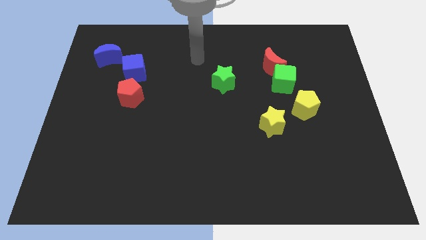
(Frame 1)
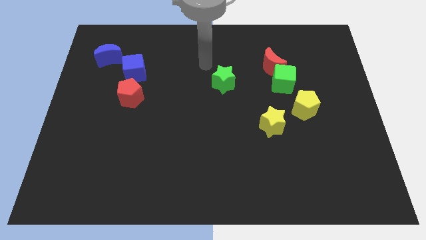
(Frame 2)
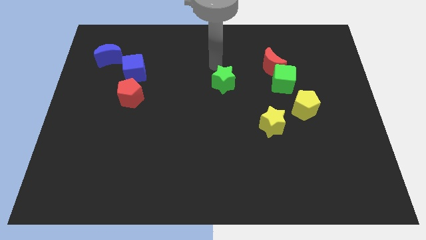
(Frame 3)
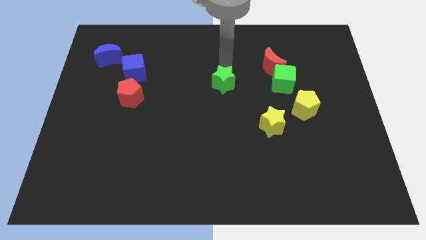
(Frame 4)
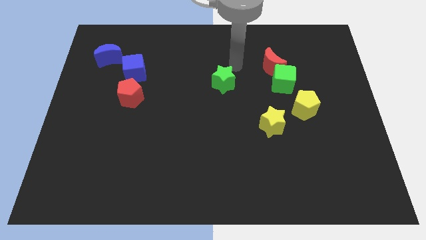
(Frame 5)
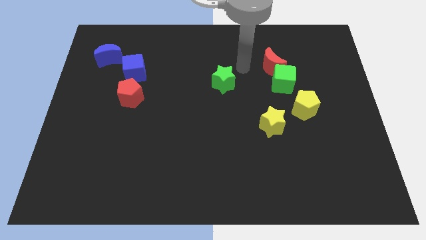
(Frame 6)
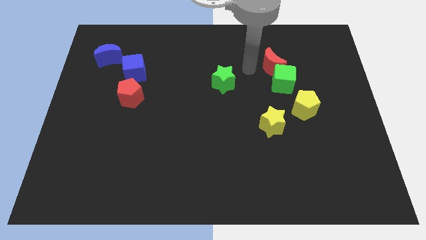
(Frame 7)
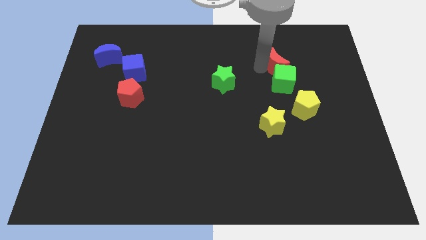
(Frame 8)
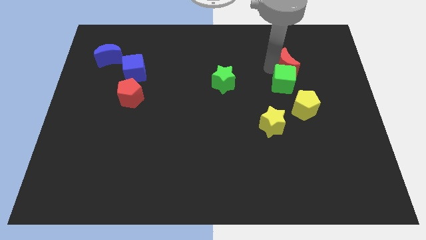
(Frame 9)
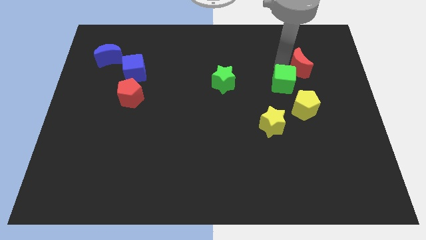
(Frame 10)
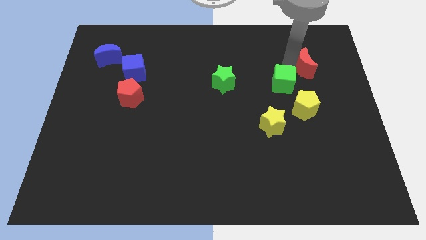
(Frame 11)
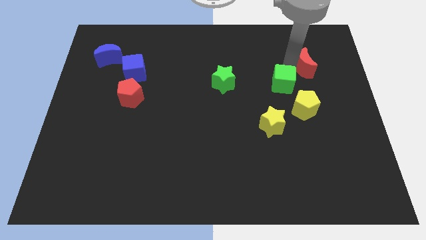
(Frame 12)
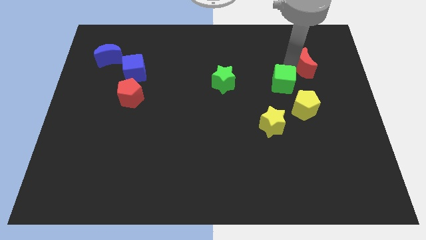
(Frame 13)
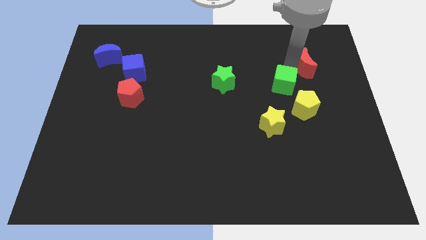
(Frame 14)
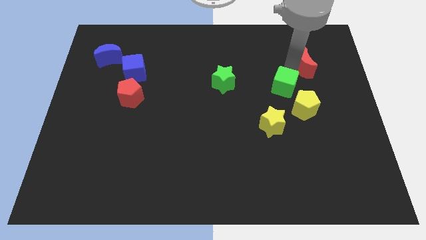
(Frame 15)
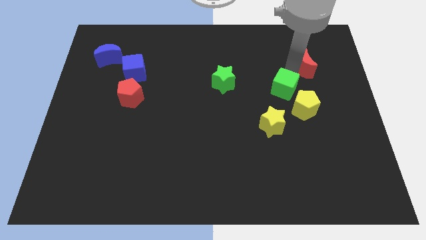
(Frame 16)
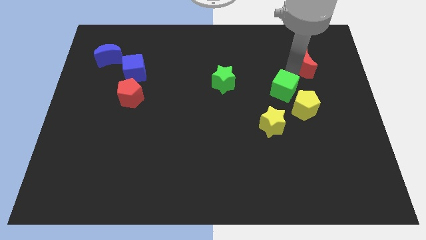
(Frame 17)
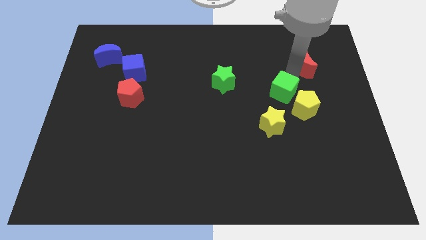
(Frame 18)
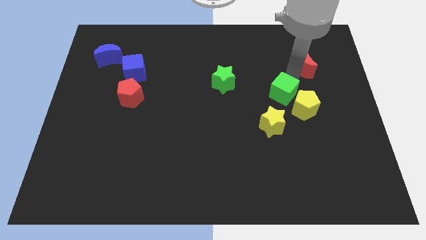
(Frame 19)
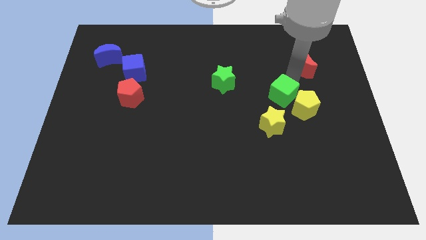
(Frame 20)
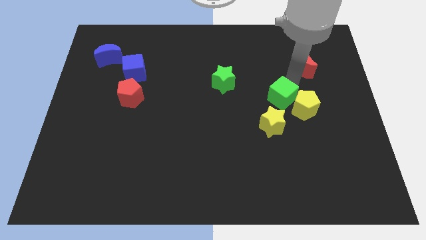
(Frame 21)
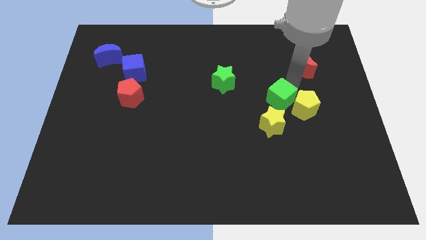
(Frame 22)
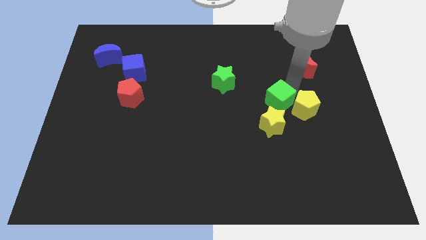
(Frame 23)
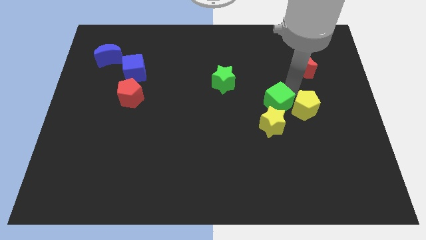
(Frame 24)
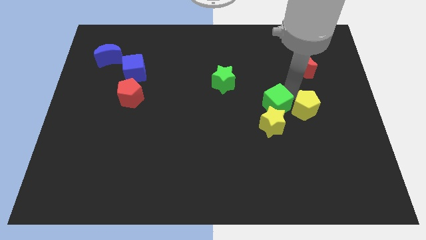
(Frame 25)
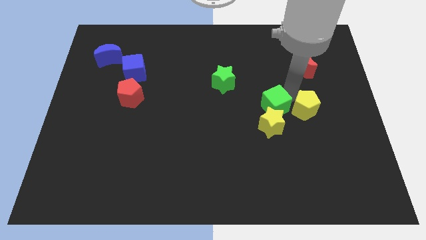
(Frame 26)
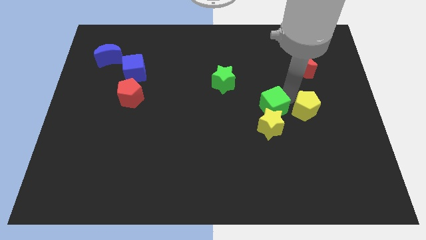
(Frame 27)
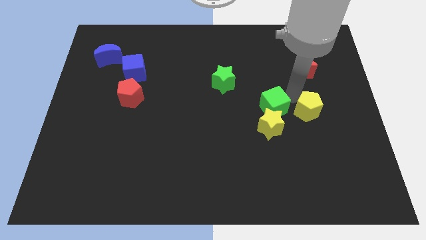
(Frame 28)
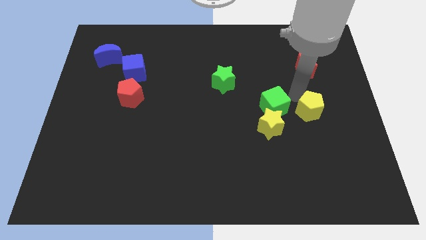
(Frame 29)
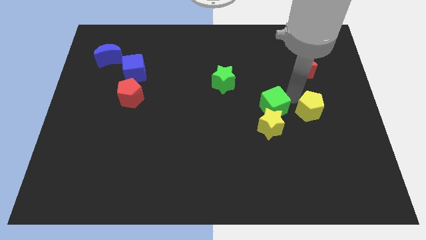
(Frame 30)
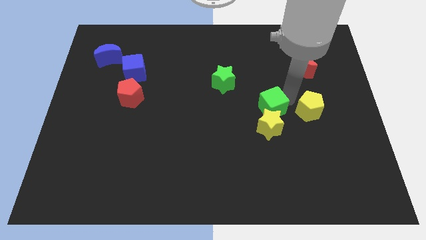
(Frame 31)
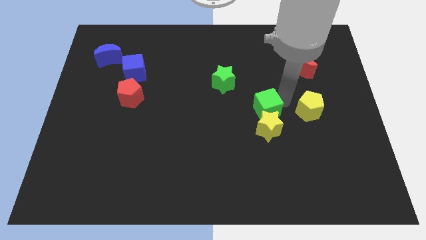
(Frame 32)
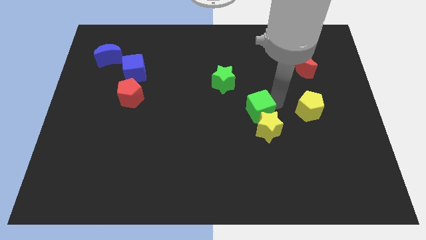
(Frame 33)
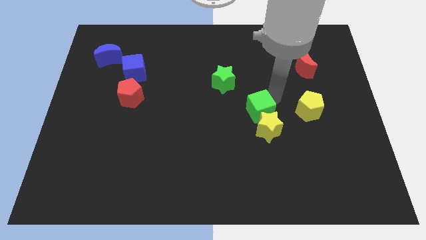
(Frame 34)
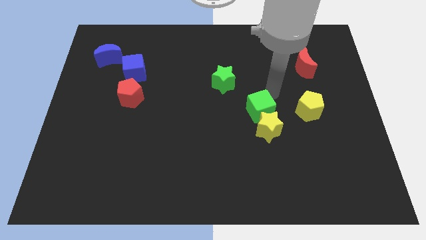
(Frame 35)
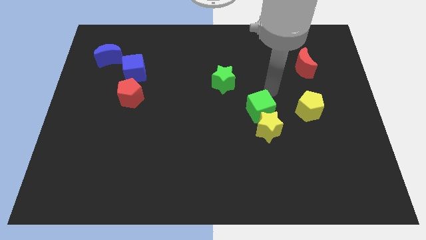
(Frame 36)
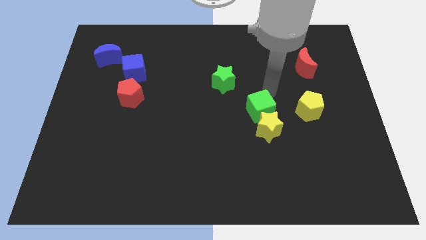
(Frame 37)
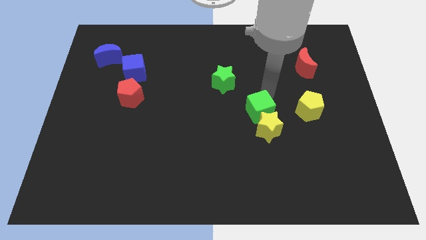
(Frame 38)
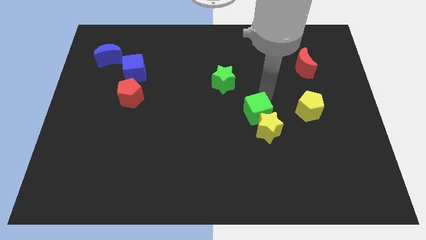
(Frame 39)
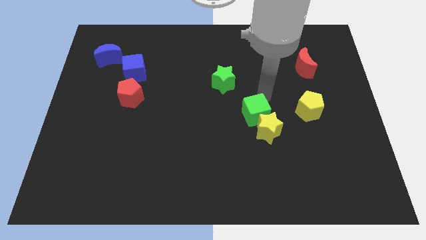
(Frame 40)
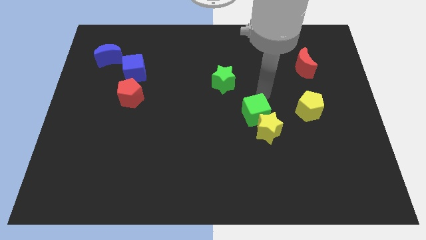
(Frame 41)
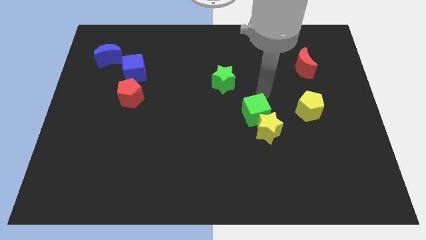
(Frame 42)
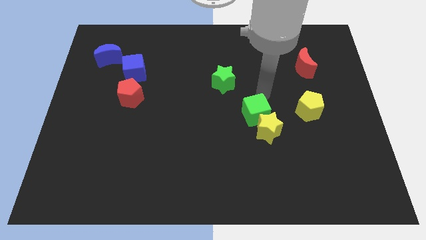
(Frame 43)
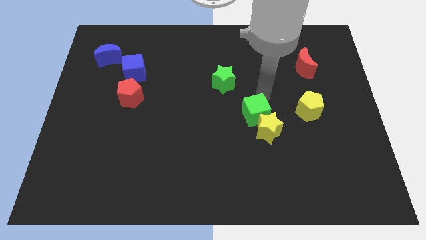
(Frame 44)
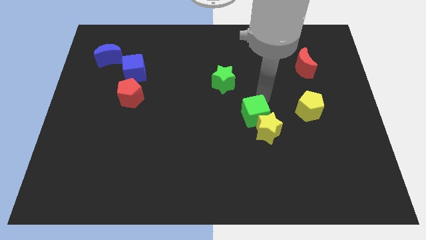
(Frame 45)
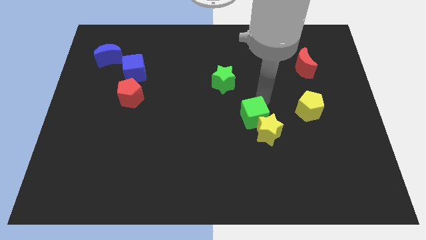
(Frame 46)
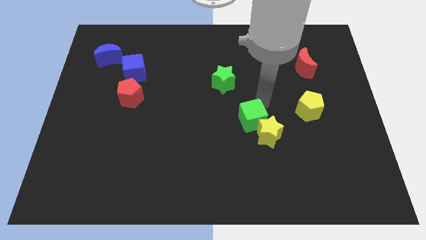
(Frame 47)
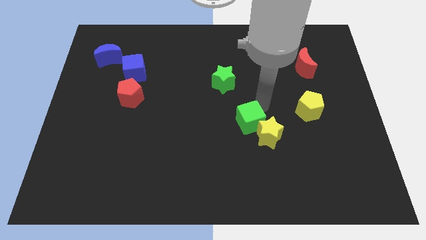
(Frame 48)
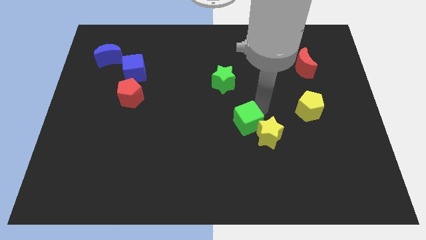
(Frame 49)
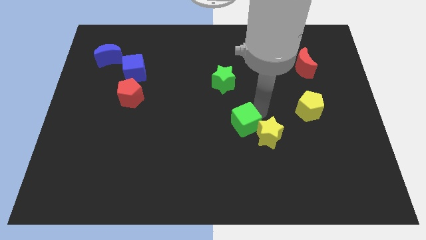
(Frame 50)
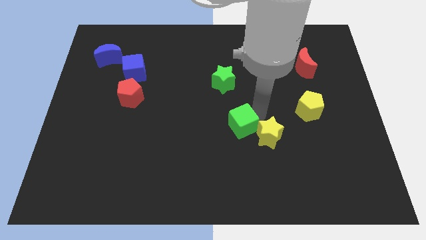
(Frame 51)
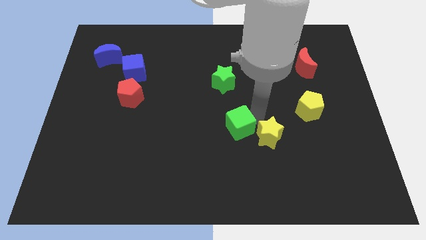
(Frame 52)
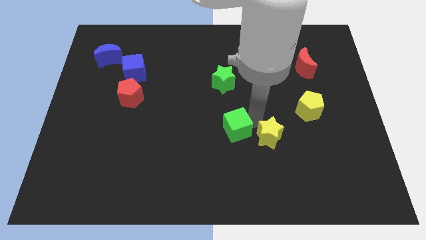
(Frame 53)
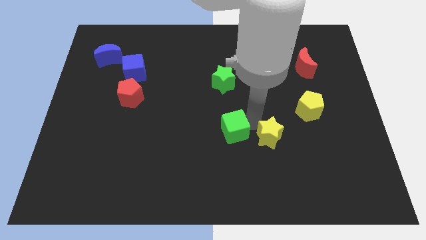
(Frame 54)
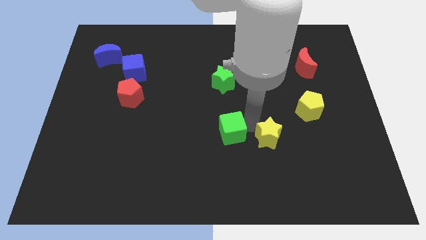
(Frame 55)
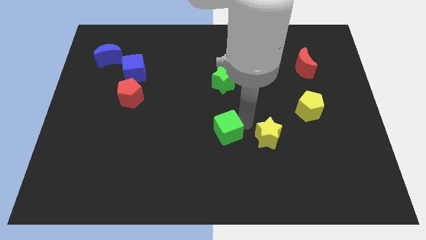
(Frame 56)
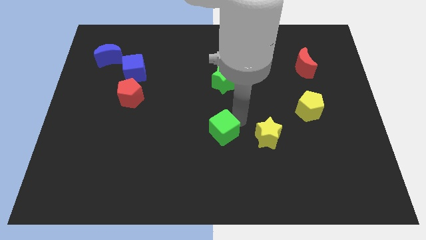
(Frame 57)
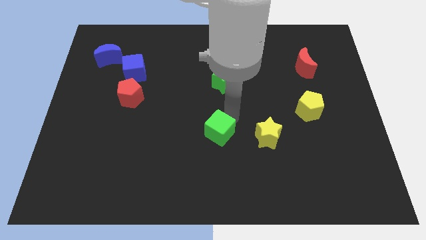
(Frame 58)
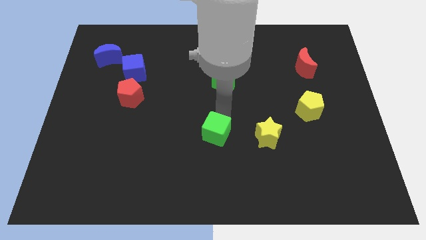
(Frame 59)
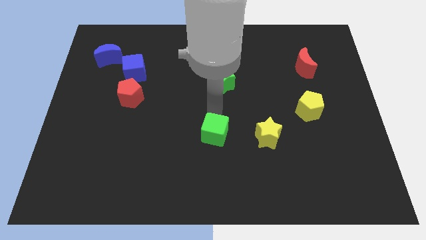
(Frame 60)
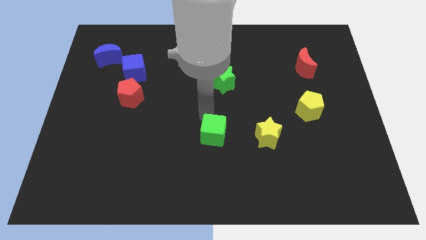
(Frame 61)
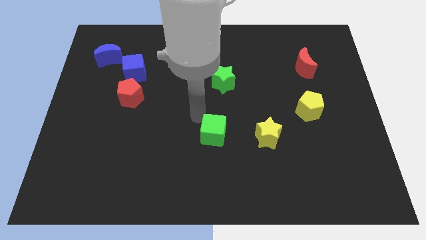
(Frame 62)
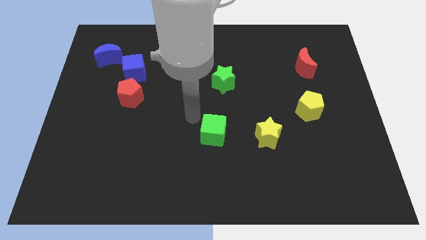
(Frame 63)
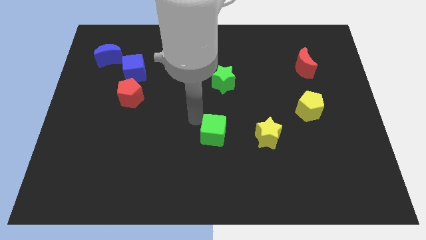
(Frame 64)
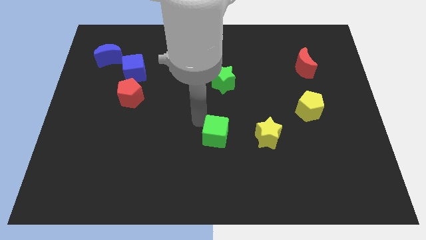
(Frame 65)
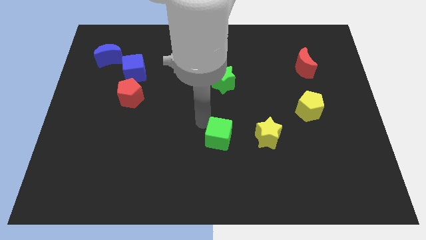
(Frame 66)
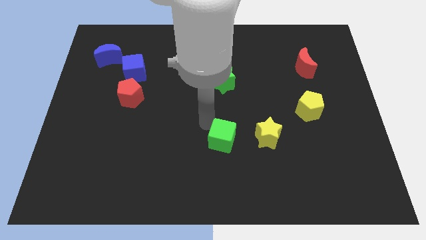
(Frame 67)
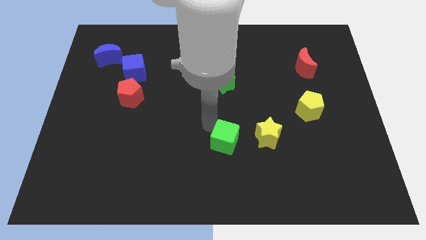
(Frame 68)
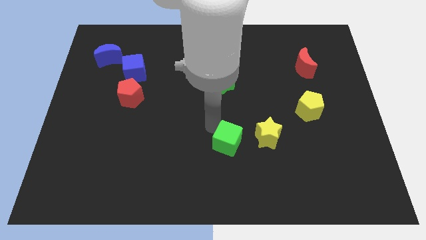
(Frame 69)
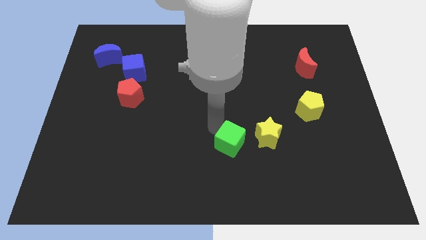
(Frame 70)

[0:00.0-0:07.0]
push the green cube to the bottom left of the yellow star

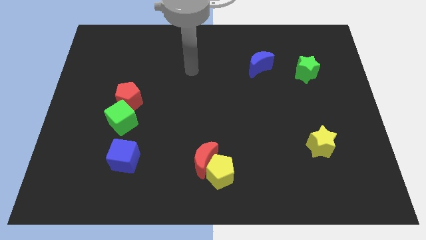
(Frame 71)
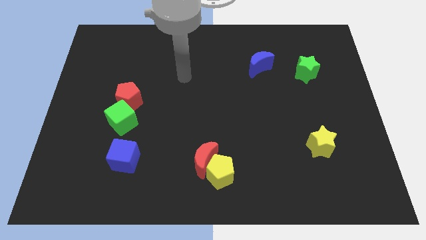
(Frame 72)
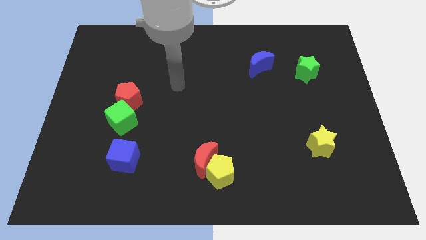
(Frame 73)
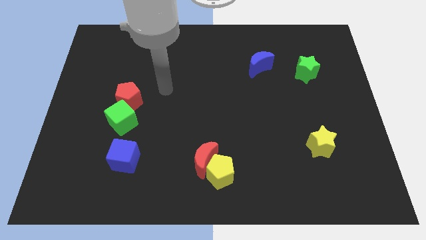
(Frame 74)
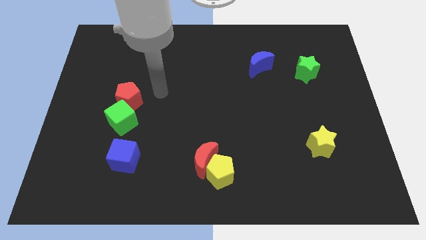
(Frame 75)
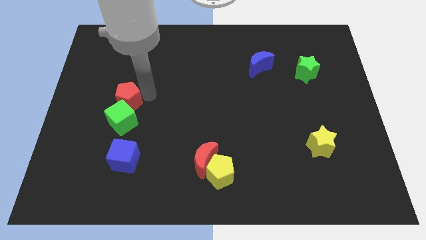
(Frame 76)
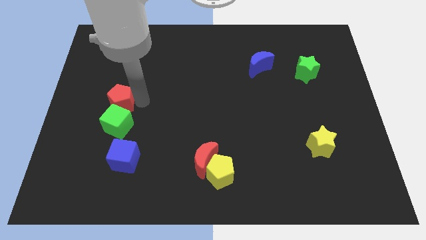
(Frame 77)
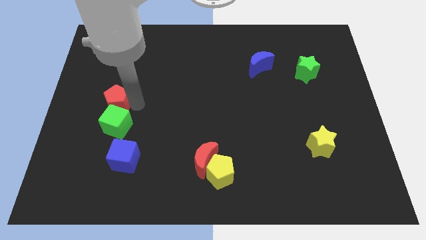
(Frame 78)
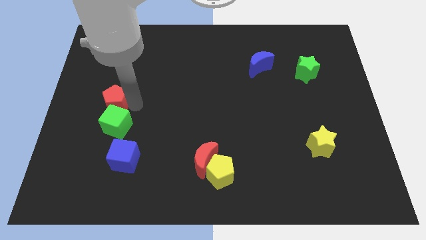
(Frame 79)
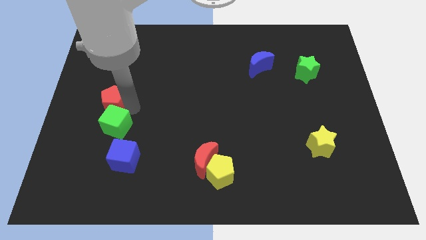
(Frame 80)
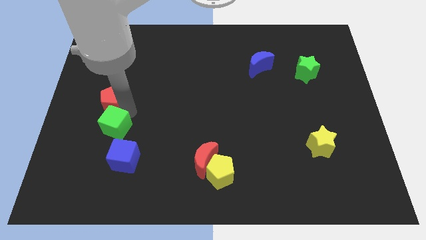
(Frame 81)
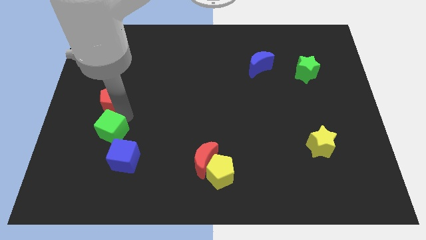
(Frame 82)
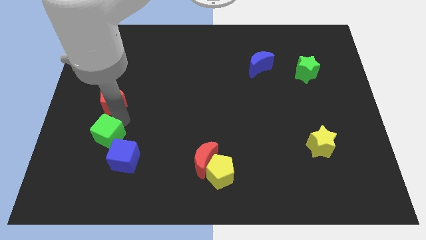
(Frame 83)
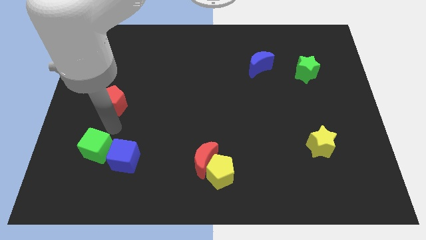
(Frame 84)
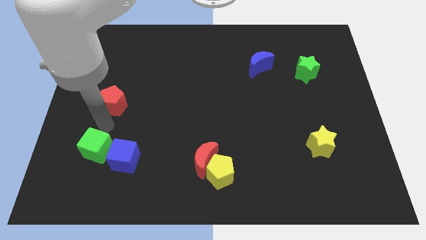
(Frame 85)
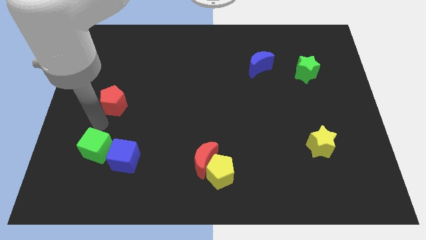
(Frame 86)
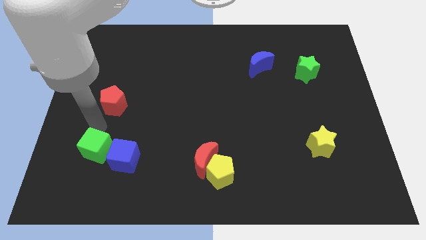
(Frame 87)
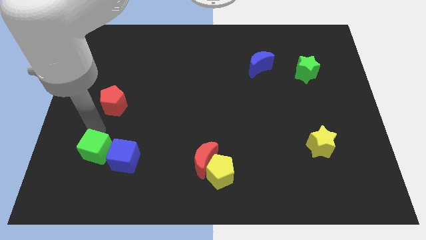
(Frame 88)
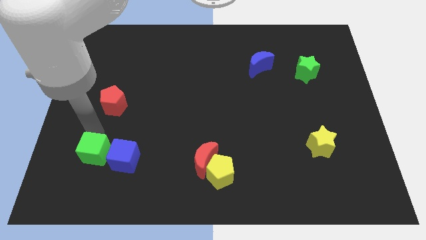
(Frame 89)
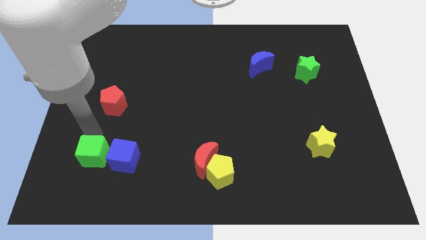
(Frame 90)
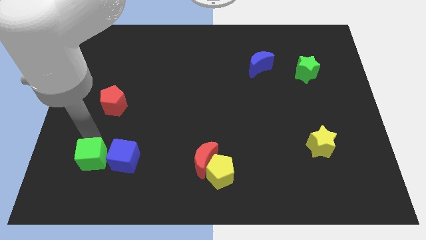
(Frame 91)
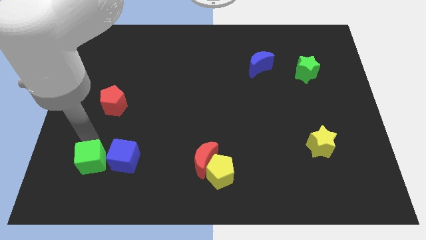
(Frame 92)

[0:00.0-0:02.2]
move the green cube diagonally down and to the left of the blue cube
